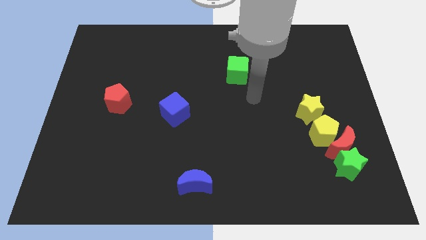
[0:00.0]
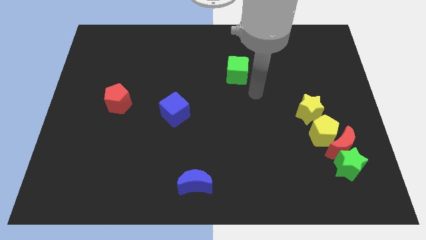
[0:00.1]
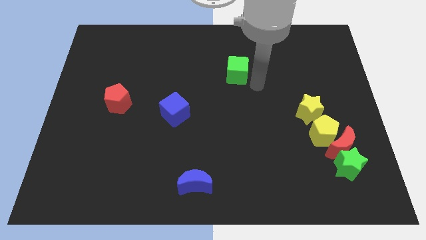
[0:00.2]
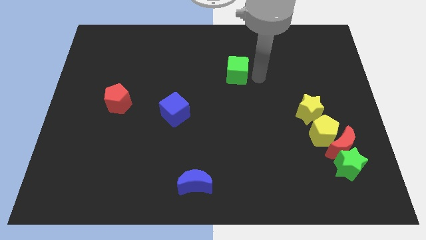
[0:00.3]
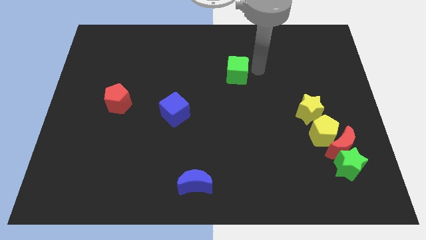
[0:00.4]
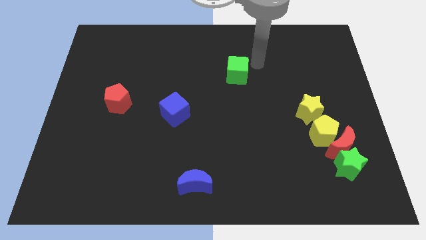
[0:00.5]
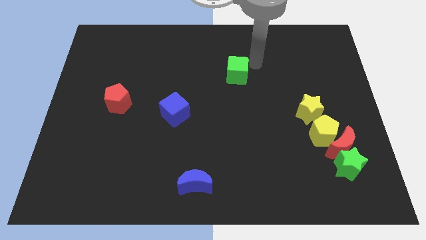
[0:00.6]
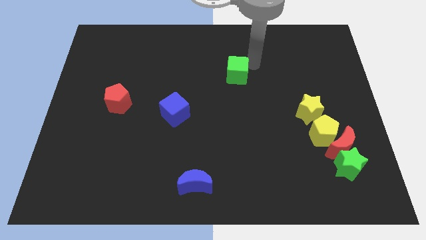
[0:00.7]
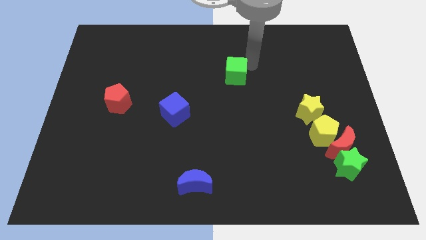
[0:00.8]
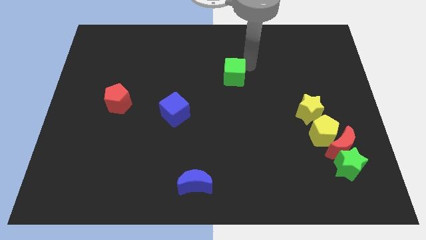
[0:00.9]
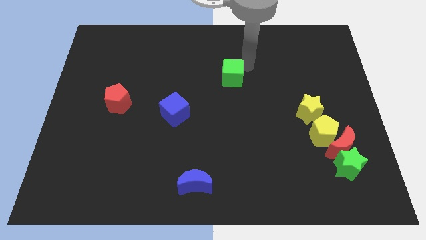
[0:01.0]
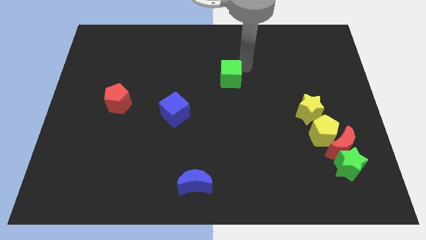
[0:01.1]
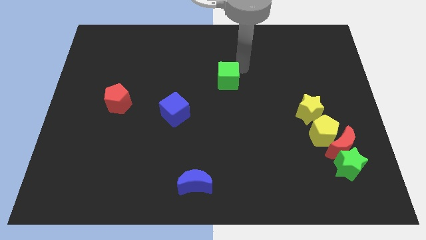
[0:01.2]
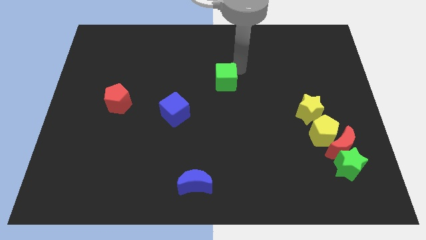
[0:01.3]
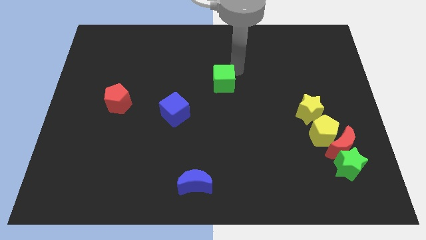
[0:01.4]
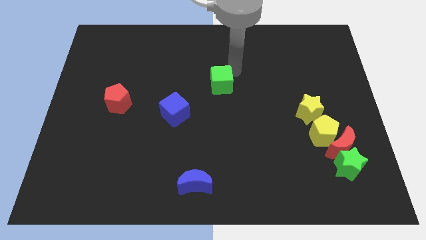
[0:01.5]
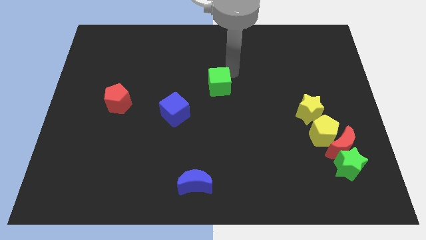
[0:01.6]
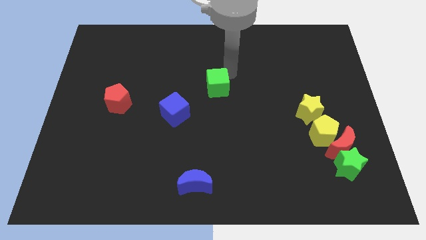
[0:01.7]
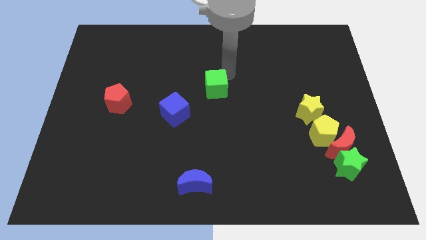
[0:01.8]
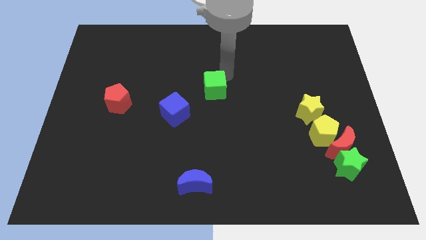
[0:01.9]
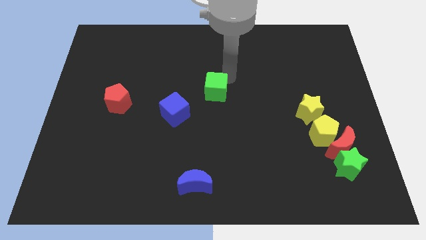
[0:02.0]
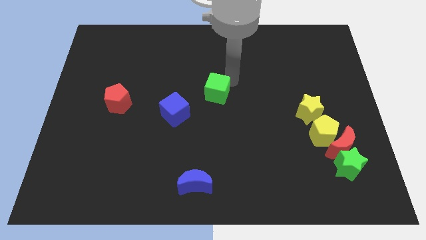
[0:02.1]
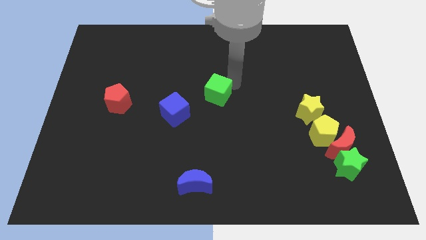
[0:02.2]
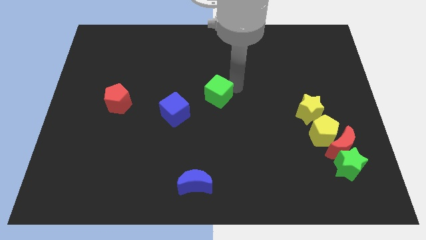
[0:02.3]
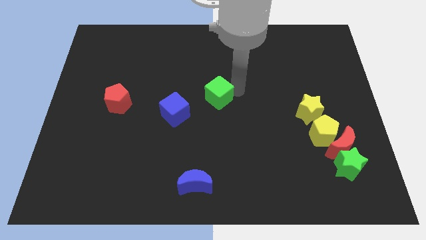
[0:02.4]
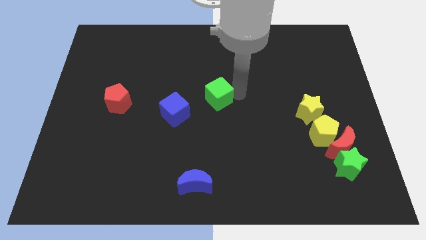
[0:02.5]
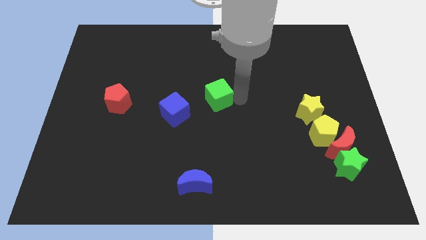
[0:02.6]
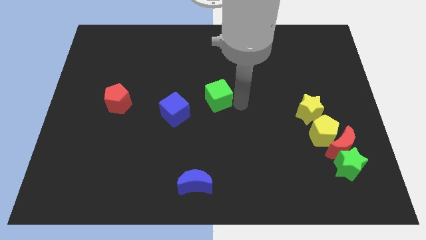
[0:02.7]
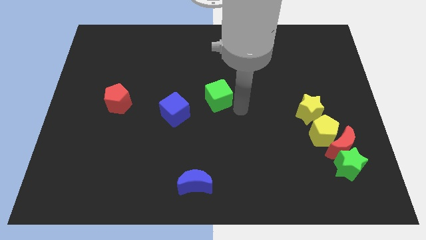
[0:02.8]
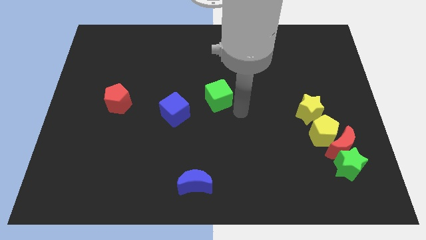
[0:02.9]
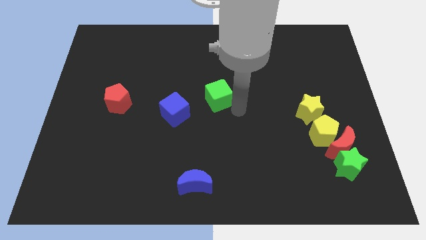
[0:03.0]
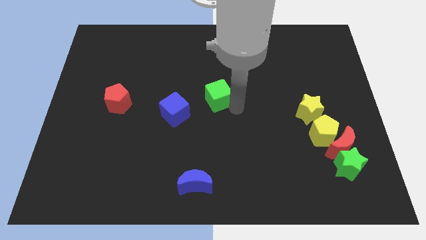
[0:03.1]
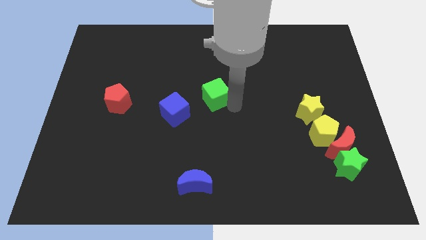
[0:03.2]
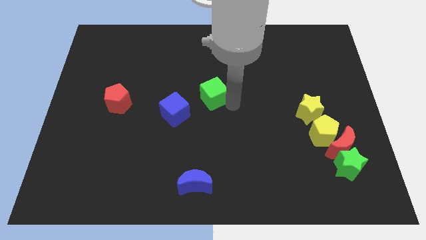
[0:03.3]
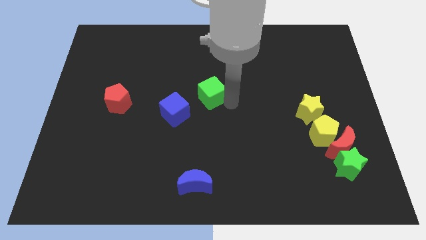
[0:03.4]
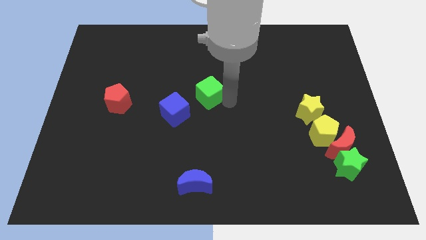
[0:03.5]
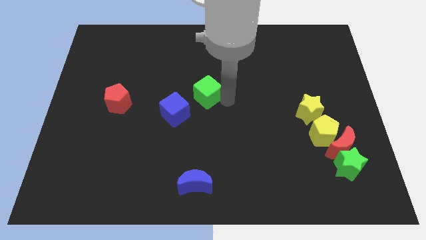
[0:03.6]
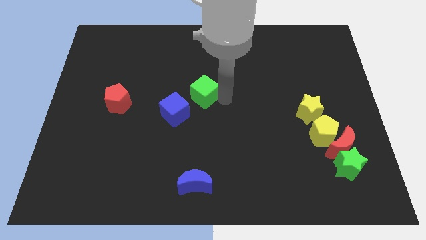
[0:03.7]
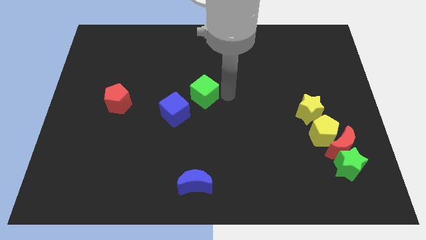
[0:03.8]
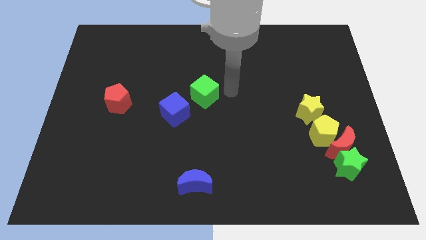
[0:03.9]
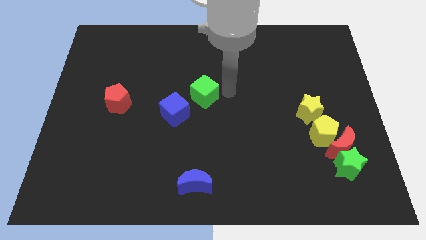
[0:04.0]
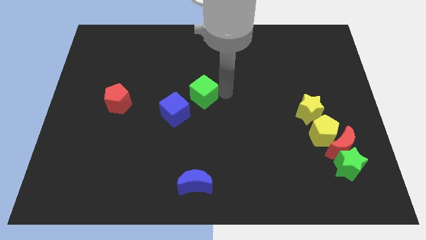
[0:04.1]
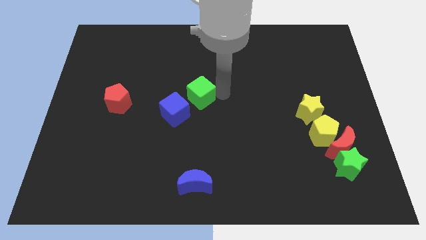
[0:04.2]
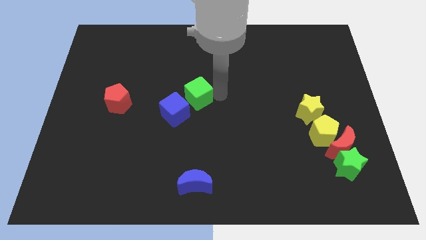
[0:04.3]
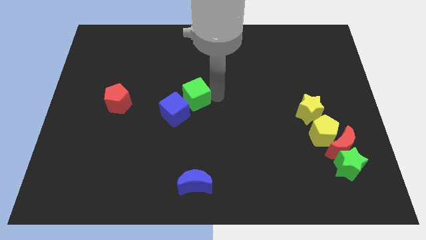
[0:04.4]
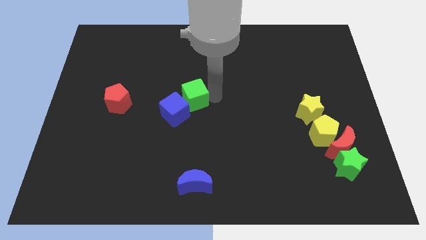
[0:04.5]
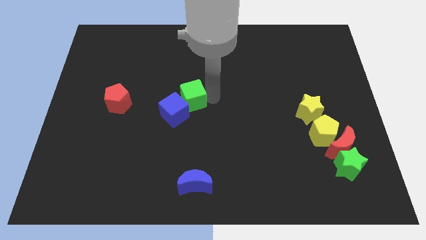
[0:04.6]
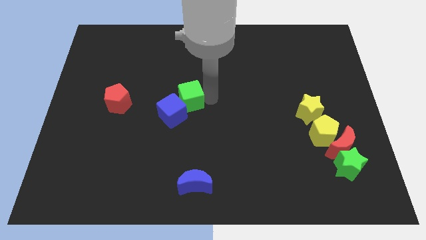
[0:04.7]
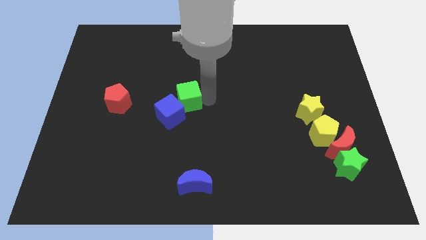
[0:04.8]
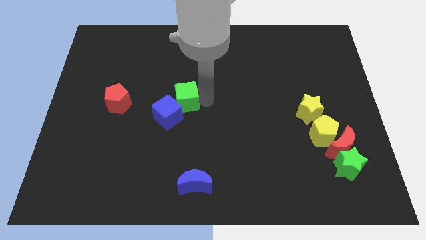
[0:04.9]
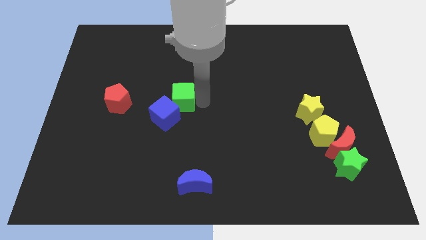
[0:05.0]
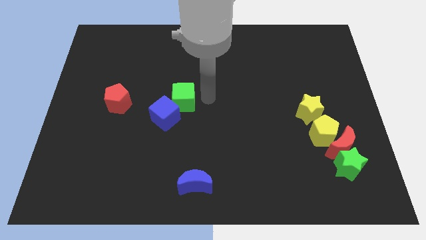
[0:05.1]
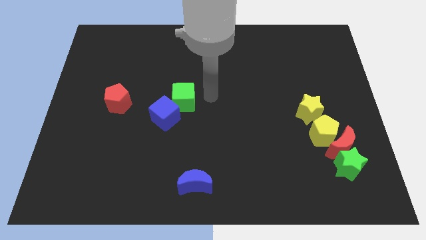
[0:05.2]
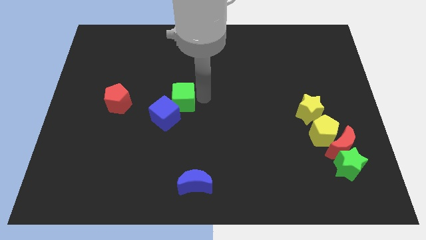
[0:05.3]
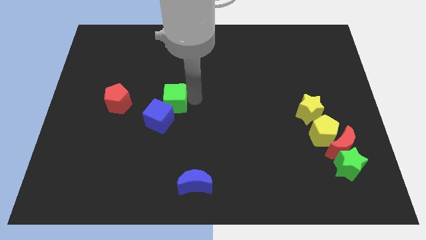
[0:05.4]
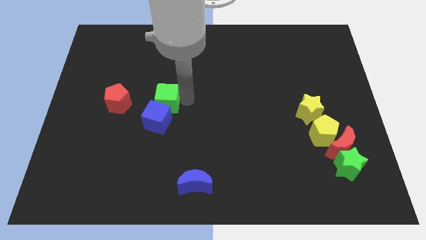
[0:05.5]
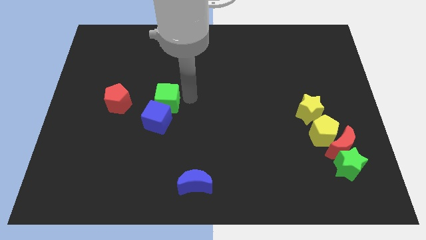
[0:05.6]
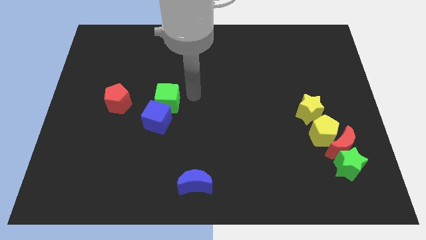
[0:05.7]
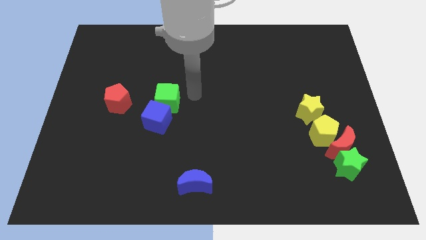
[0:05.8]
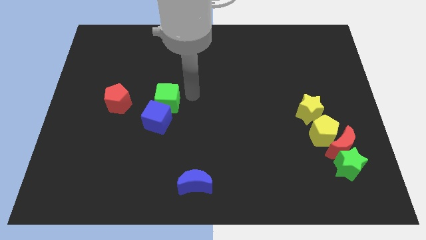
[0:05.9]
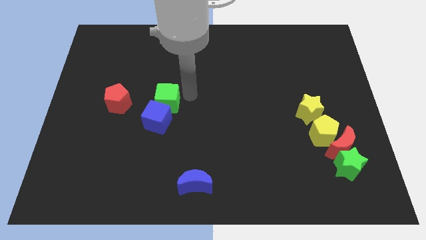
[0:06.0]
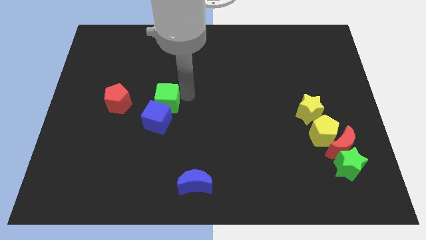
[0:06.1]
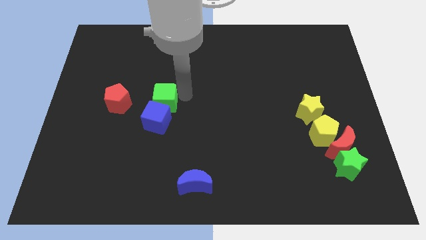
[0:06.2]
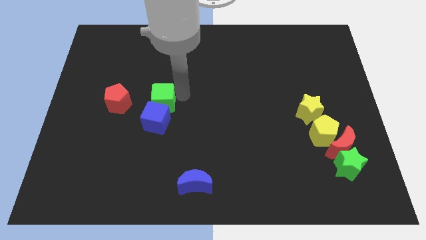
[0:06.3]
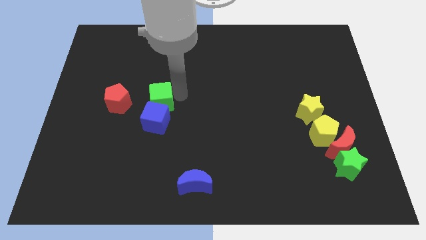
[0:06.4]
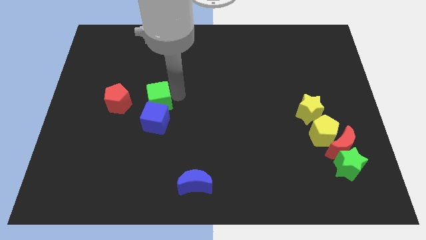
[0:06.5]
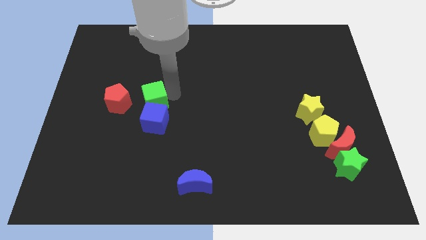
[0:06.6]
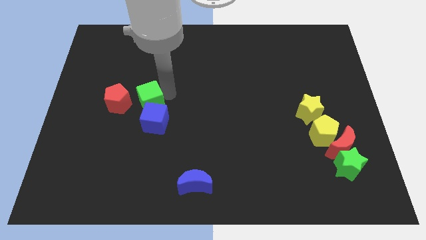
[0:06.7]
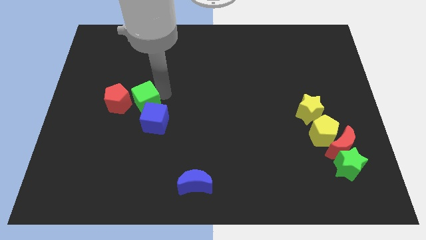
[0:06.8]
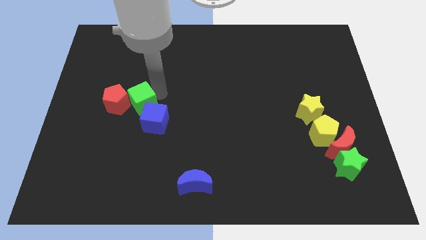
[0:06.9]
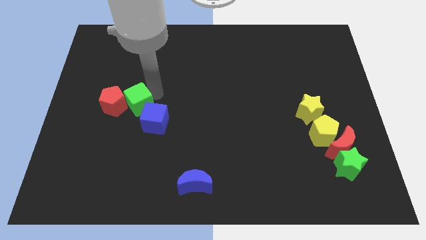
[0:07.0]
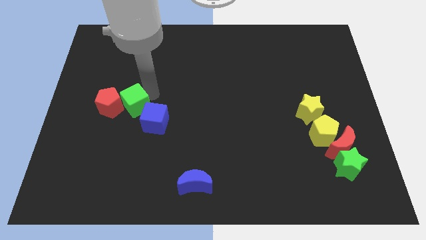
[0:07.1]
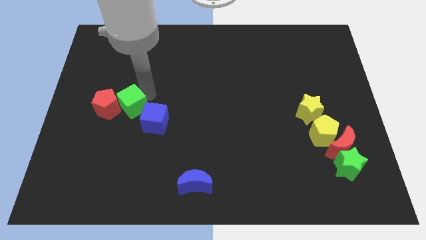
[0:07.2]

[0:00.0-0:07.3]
put the green cube left of the blue cube

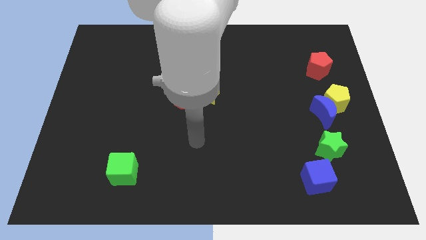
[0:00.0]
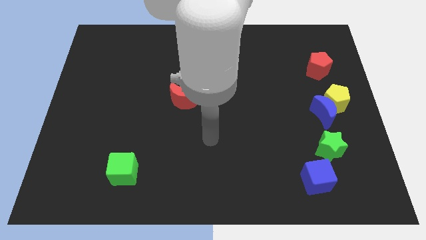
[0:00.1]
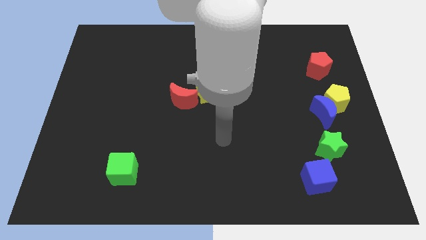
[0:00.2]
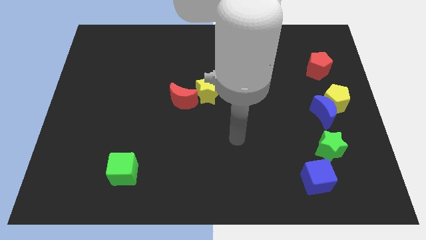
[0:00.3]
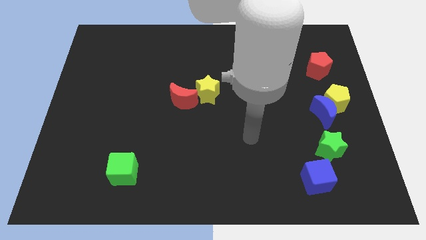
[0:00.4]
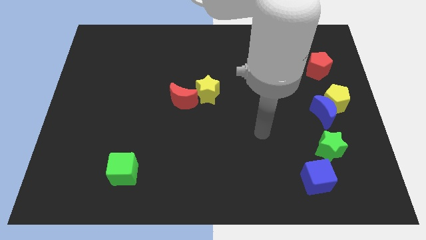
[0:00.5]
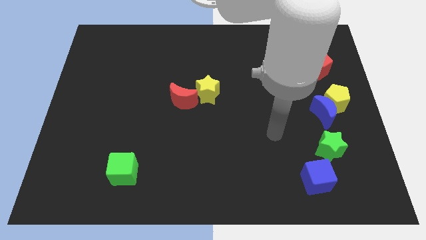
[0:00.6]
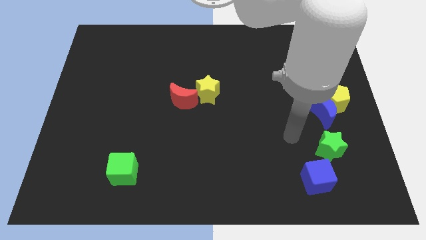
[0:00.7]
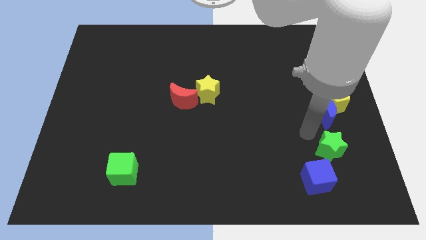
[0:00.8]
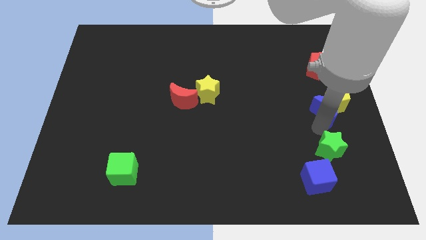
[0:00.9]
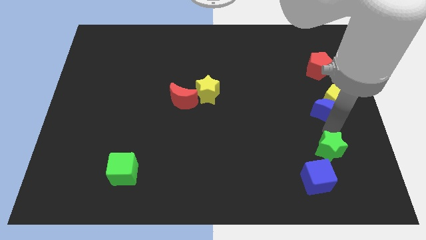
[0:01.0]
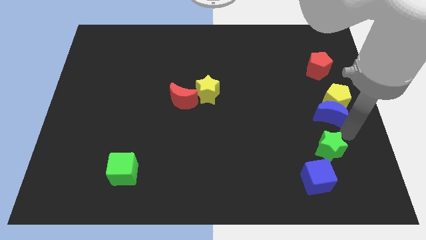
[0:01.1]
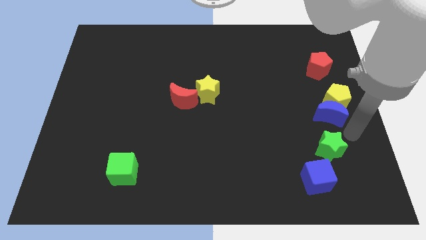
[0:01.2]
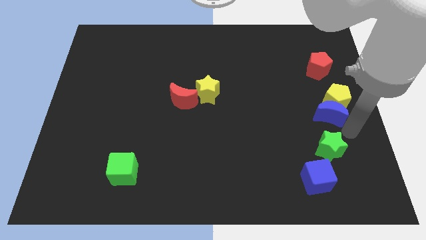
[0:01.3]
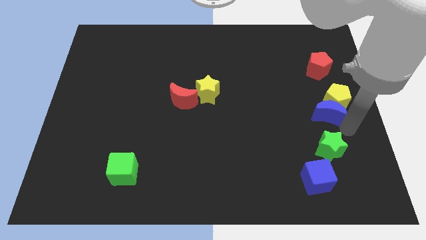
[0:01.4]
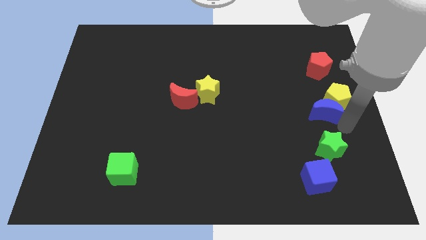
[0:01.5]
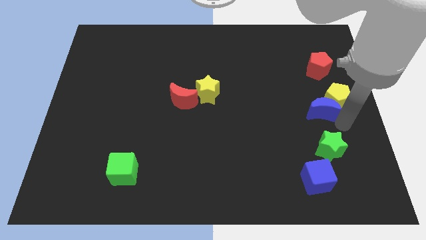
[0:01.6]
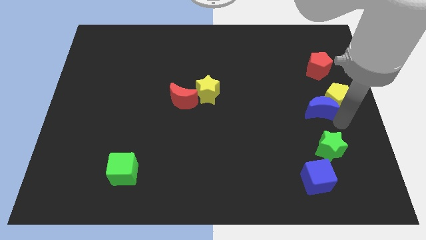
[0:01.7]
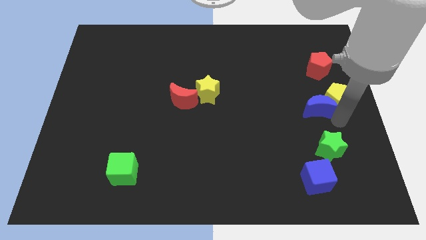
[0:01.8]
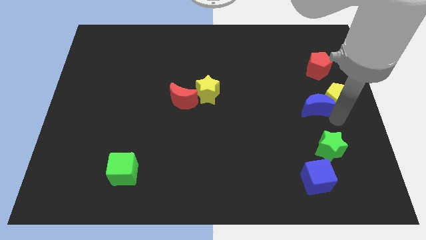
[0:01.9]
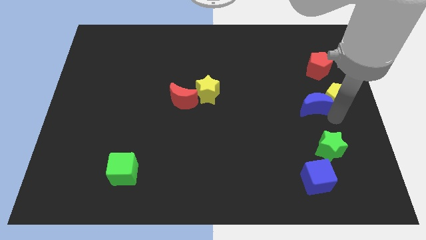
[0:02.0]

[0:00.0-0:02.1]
slide the blue moon diagonally up and to the left of the yellow pentagon
